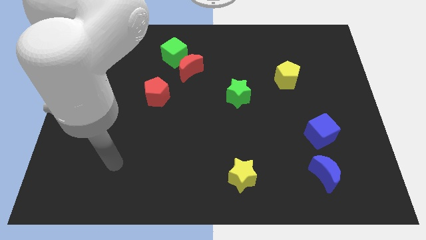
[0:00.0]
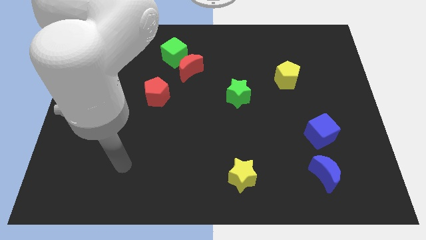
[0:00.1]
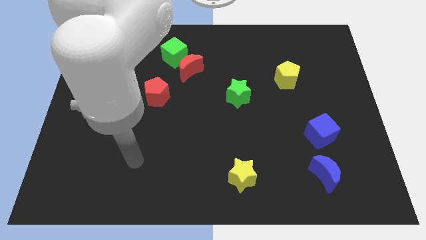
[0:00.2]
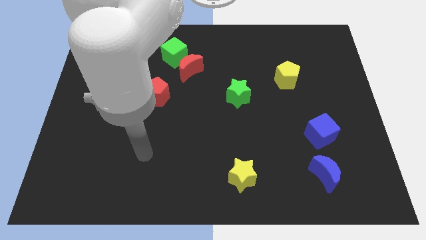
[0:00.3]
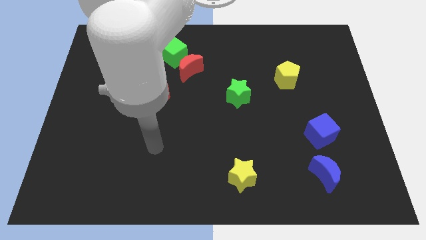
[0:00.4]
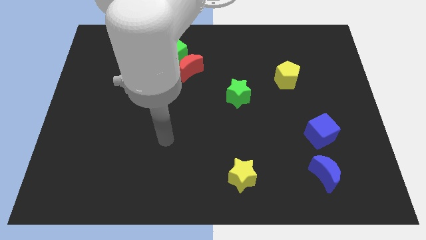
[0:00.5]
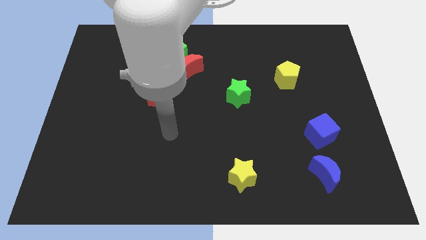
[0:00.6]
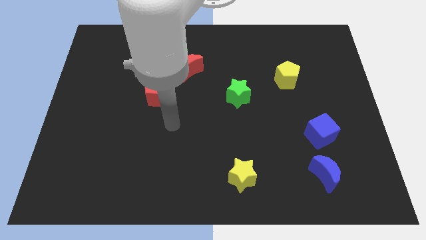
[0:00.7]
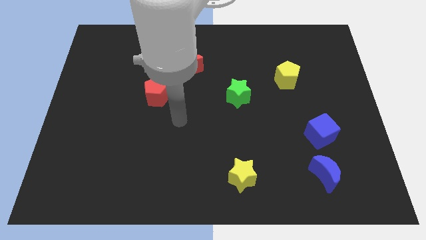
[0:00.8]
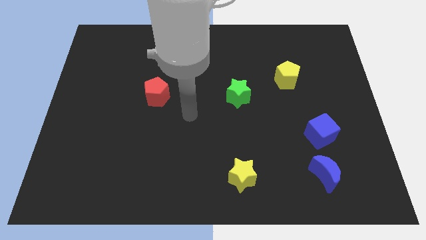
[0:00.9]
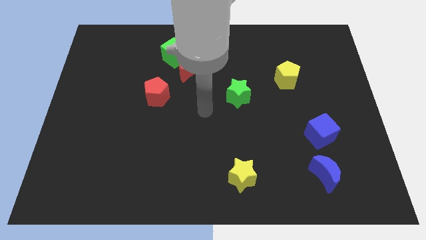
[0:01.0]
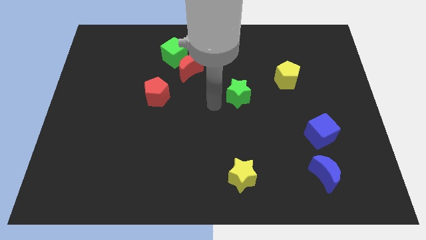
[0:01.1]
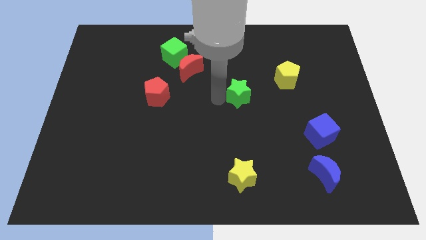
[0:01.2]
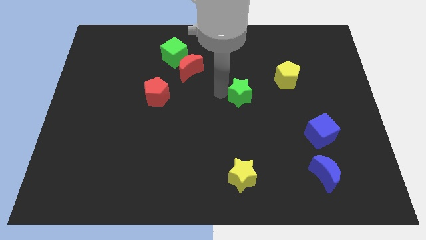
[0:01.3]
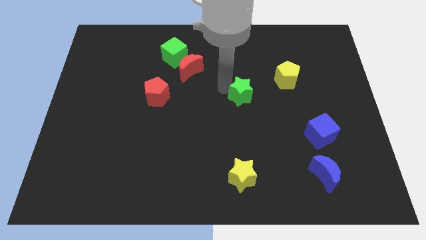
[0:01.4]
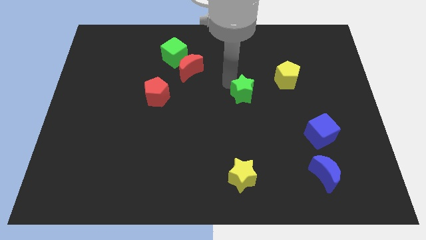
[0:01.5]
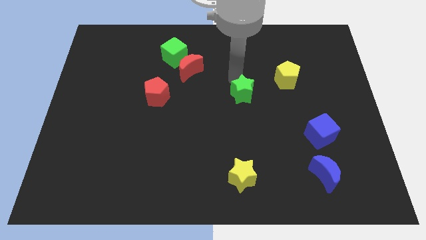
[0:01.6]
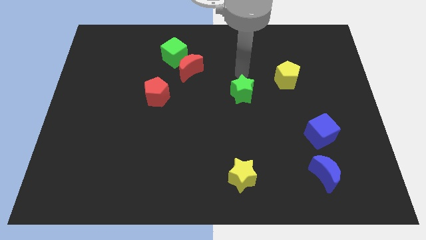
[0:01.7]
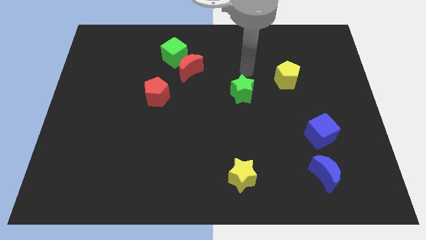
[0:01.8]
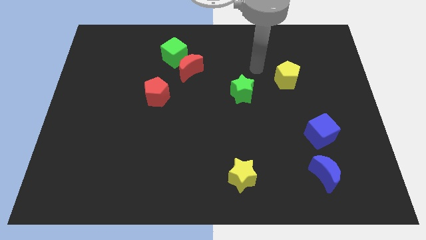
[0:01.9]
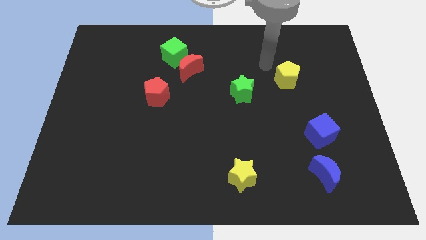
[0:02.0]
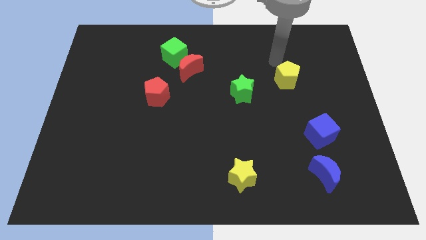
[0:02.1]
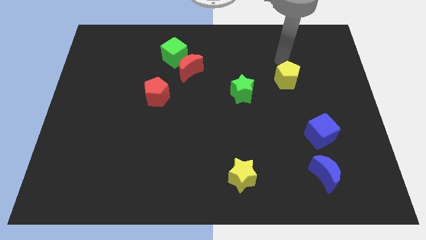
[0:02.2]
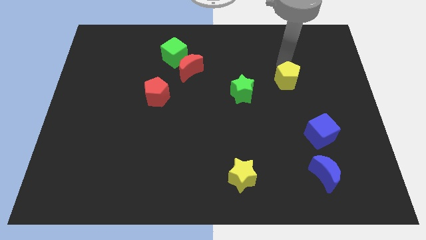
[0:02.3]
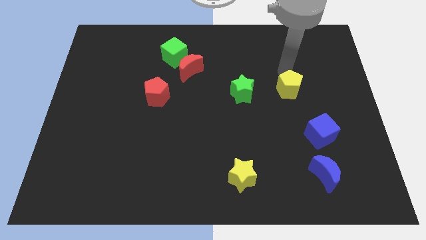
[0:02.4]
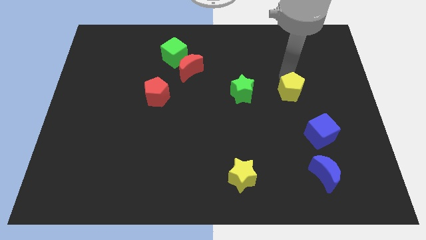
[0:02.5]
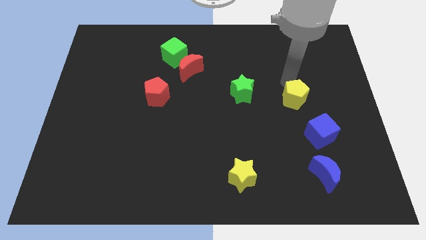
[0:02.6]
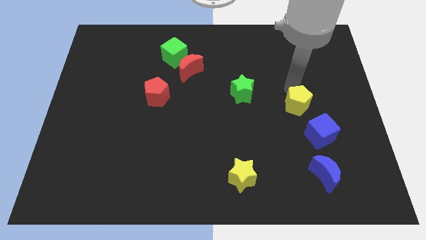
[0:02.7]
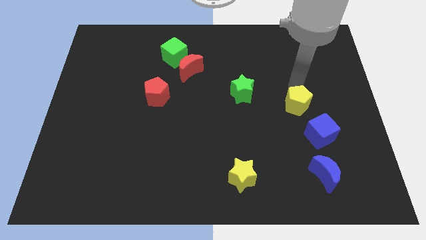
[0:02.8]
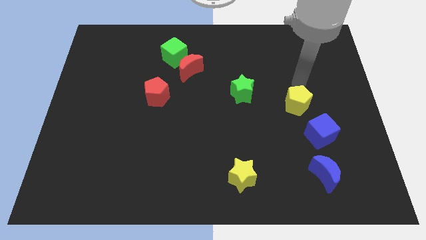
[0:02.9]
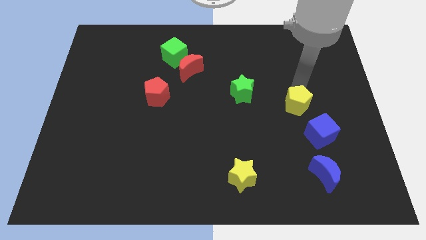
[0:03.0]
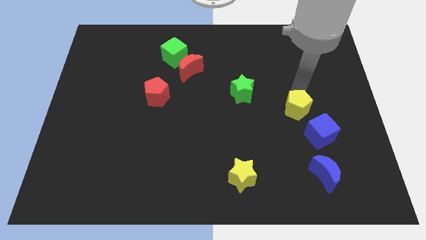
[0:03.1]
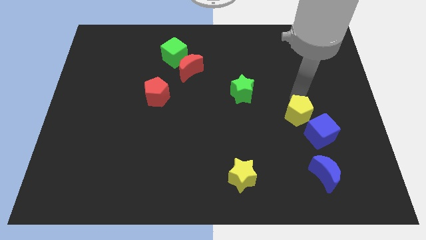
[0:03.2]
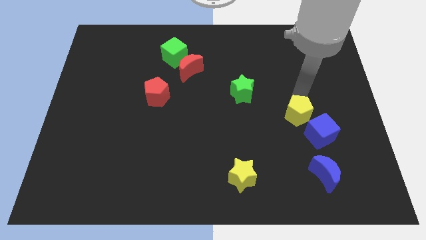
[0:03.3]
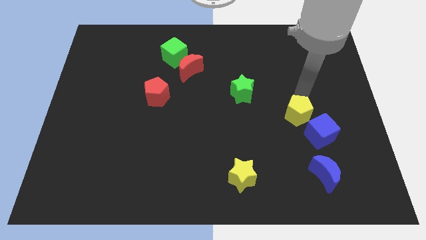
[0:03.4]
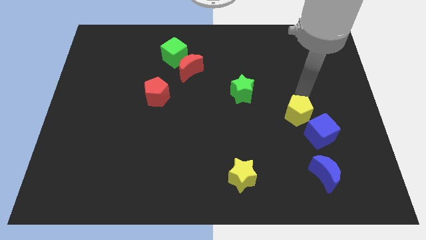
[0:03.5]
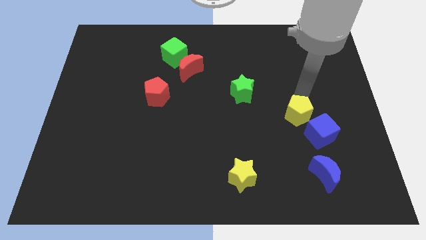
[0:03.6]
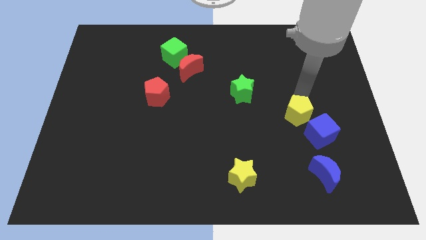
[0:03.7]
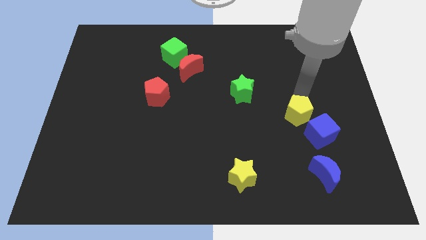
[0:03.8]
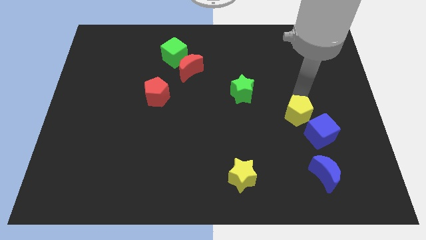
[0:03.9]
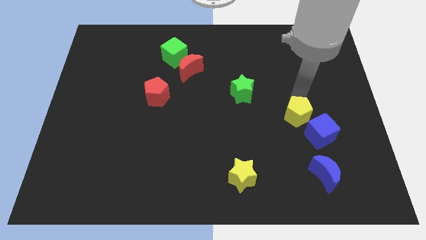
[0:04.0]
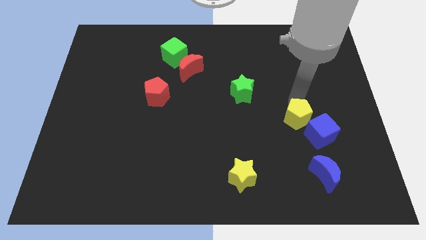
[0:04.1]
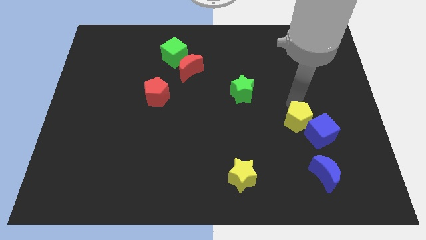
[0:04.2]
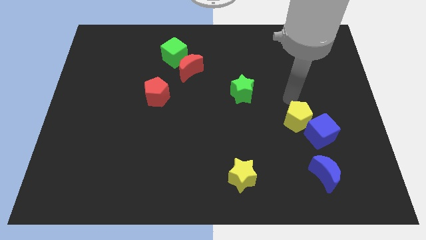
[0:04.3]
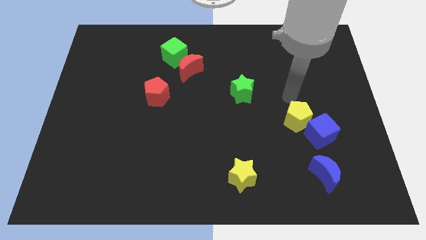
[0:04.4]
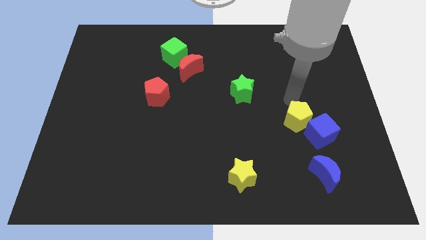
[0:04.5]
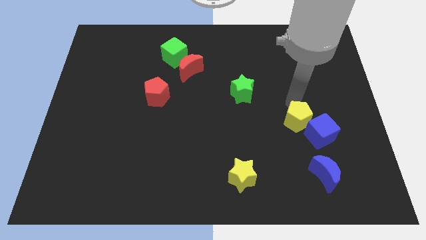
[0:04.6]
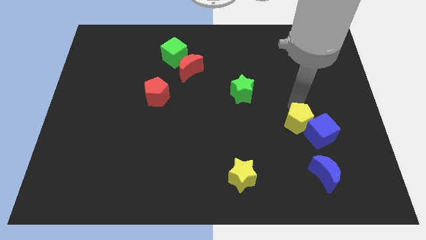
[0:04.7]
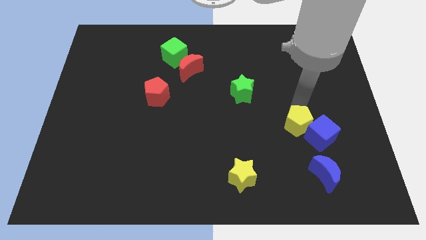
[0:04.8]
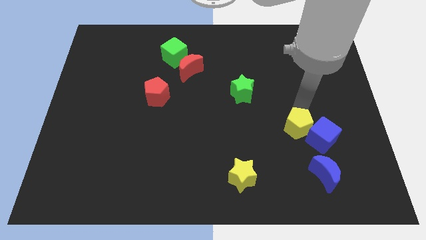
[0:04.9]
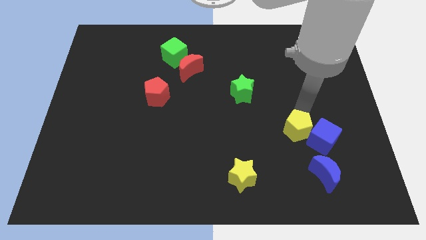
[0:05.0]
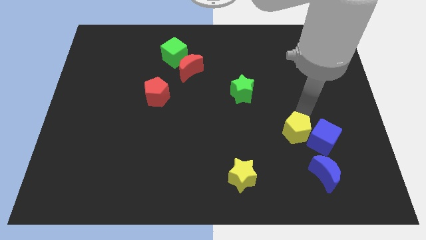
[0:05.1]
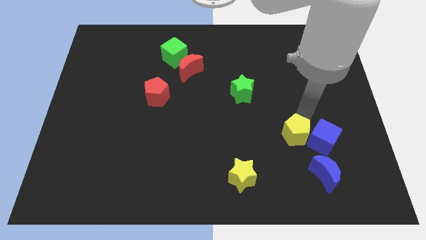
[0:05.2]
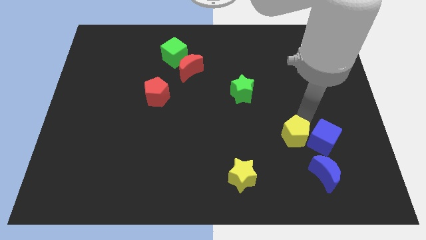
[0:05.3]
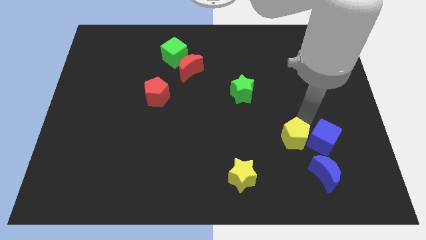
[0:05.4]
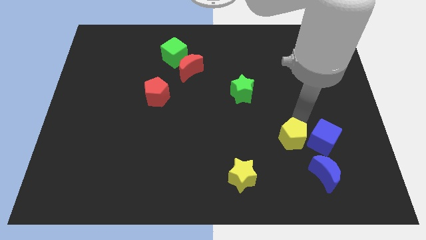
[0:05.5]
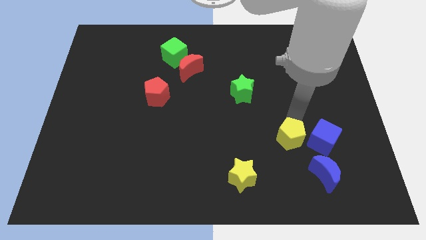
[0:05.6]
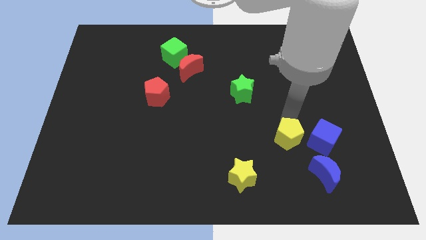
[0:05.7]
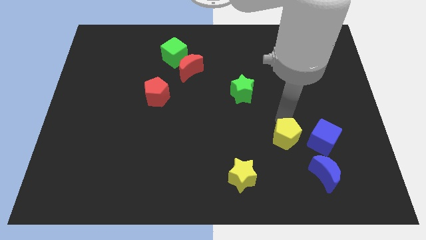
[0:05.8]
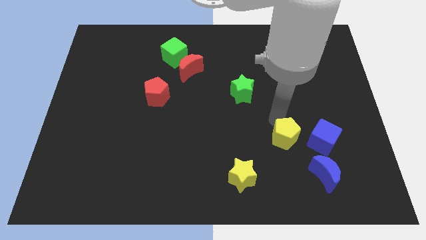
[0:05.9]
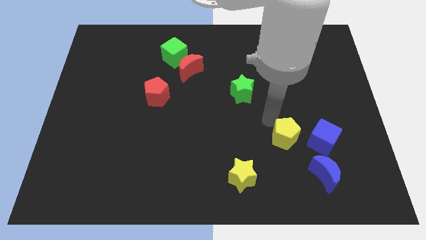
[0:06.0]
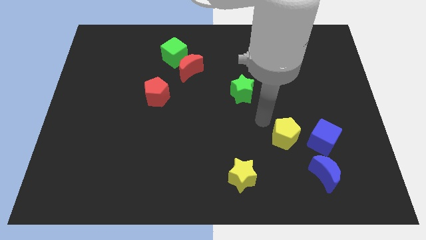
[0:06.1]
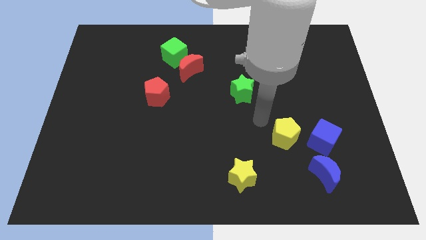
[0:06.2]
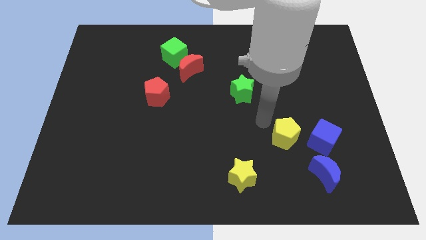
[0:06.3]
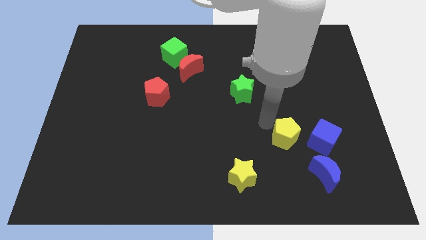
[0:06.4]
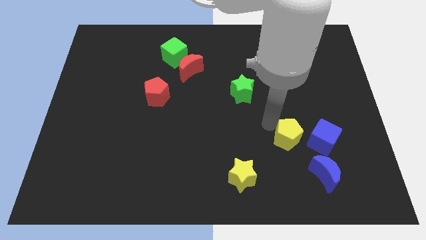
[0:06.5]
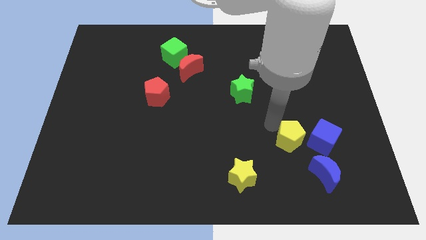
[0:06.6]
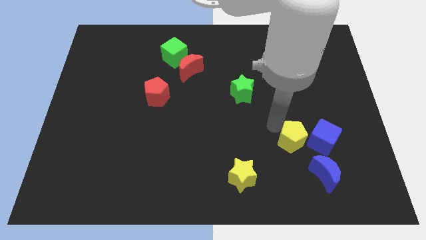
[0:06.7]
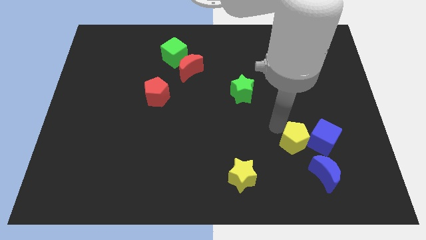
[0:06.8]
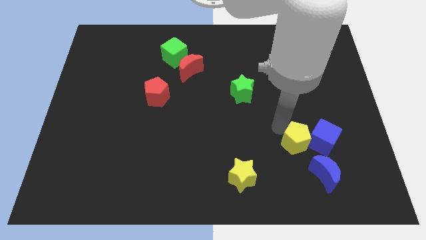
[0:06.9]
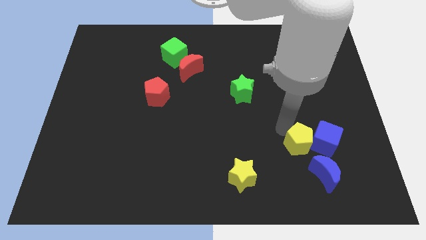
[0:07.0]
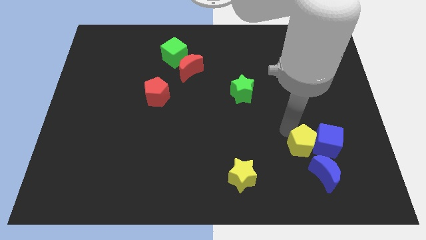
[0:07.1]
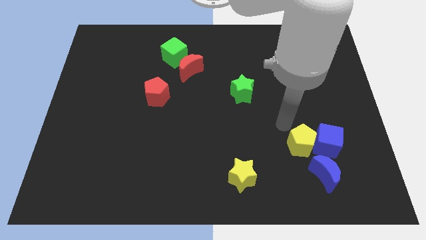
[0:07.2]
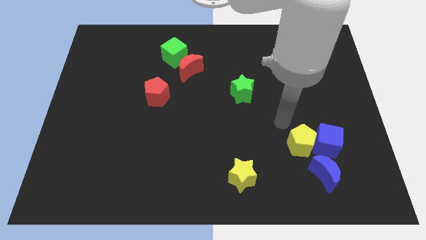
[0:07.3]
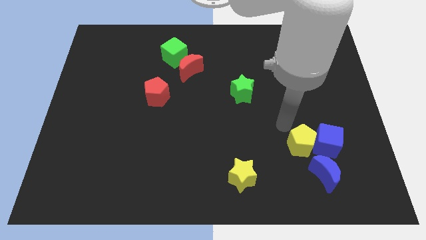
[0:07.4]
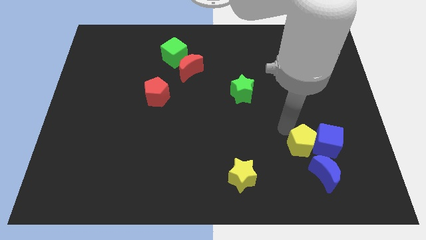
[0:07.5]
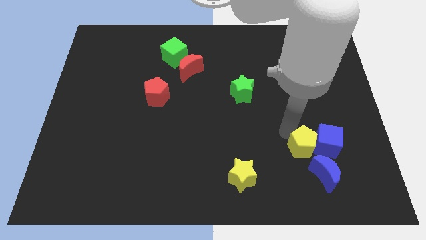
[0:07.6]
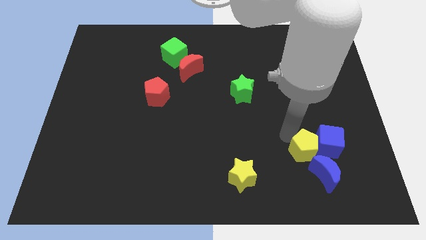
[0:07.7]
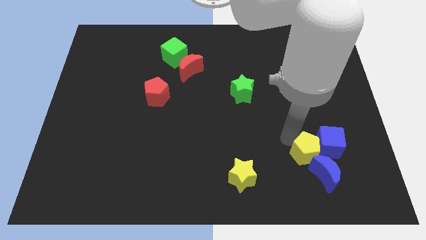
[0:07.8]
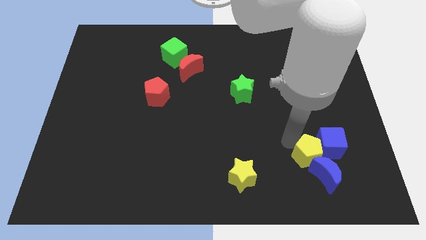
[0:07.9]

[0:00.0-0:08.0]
push the yellow pentagon close to the blue moon

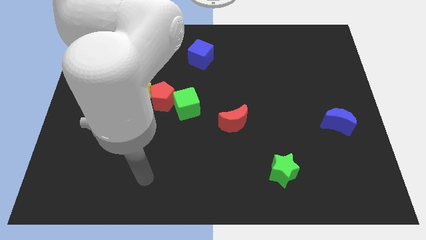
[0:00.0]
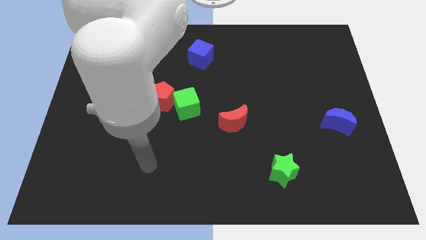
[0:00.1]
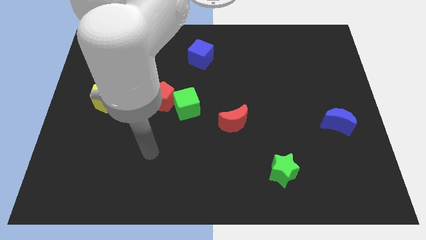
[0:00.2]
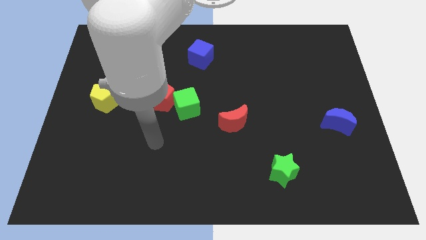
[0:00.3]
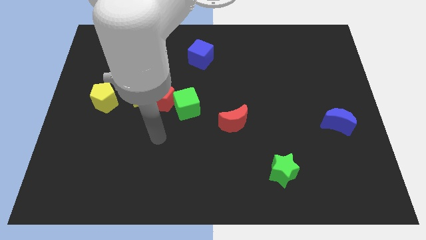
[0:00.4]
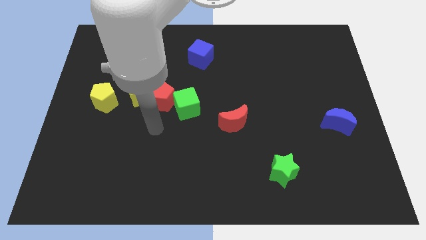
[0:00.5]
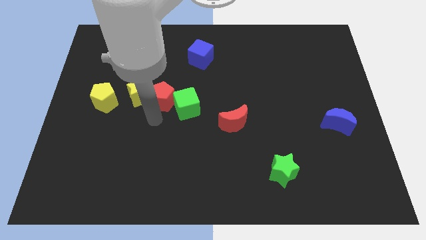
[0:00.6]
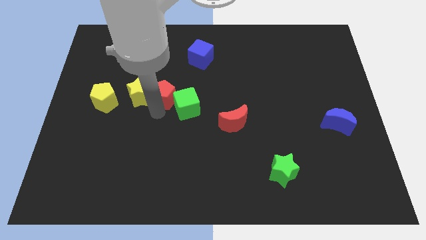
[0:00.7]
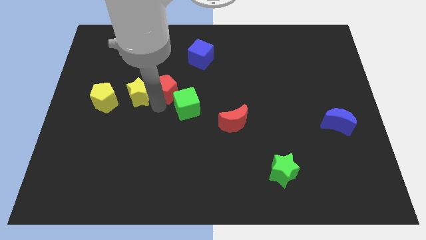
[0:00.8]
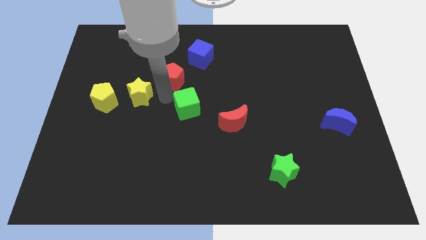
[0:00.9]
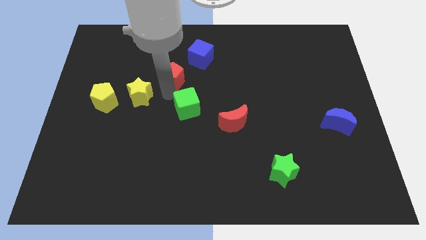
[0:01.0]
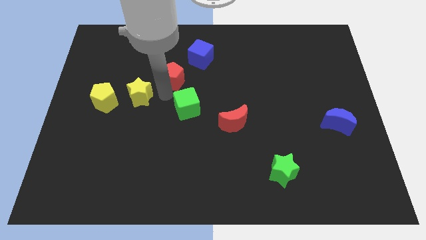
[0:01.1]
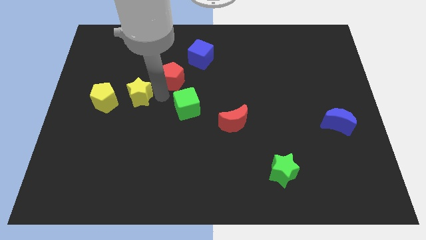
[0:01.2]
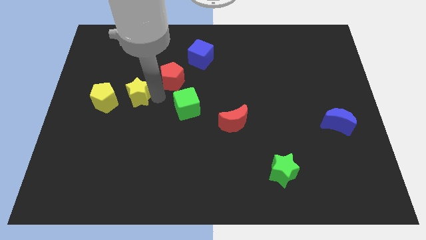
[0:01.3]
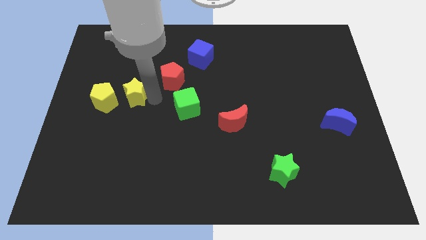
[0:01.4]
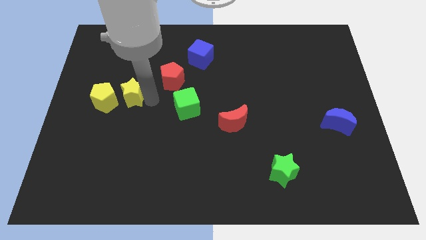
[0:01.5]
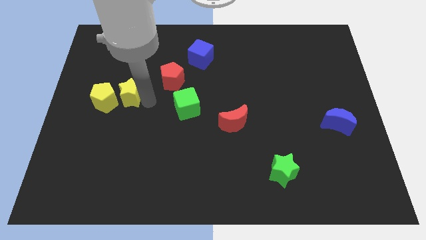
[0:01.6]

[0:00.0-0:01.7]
push the yellow star to the yellow pentagon
